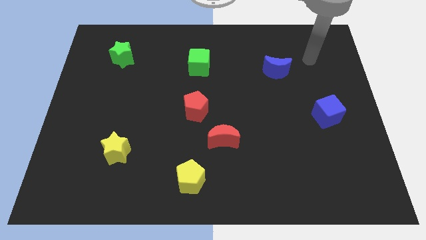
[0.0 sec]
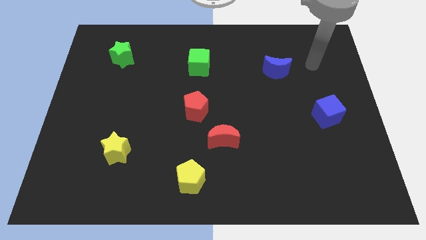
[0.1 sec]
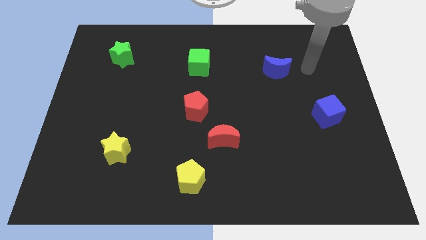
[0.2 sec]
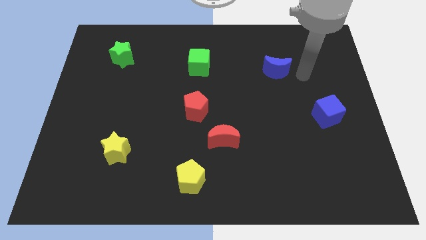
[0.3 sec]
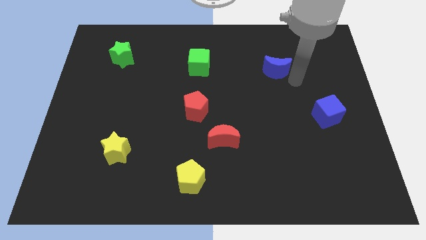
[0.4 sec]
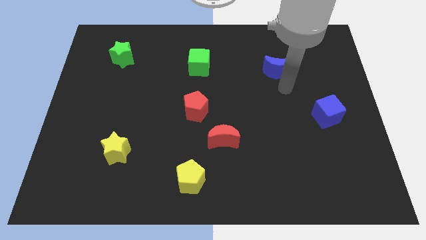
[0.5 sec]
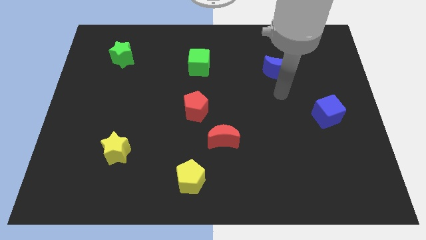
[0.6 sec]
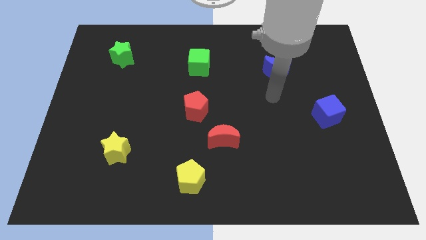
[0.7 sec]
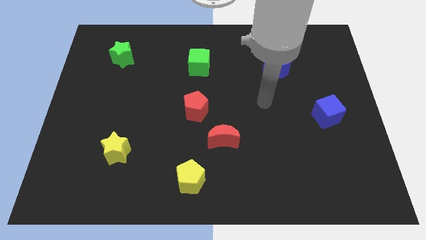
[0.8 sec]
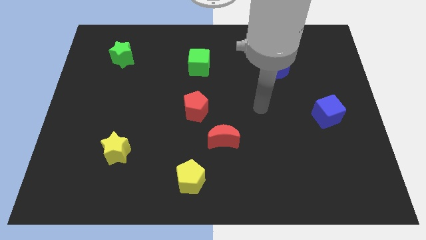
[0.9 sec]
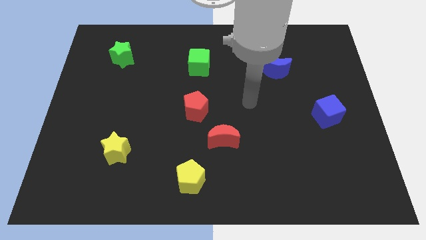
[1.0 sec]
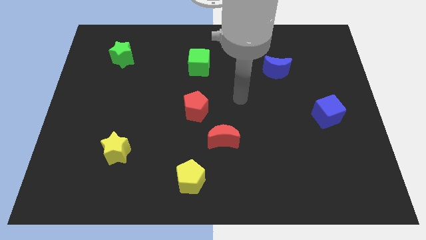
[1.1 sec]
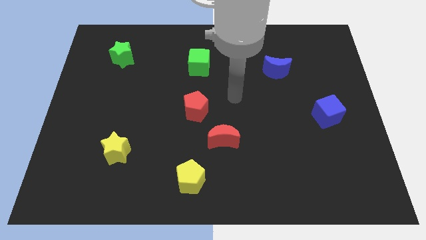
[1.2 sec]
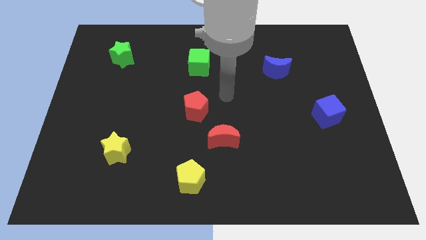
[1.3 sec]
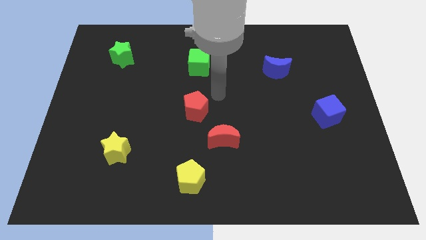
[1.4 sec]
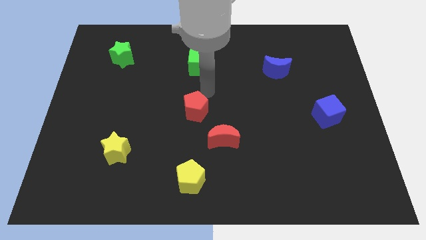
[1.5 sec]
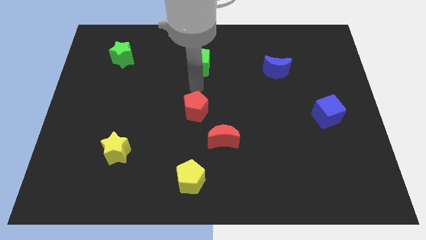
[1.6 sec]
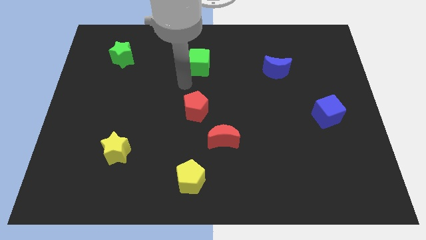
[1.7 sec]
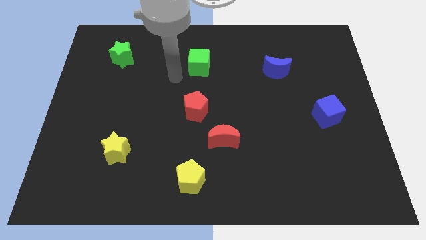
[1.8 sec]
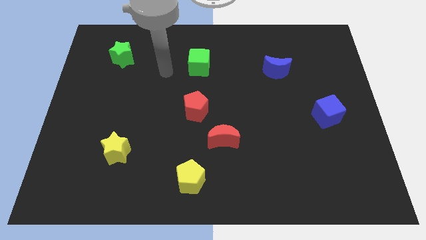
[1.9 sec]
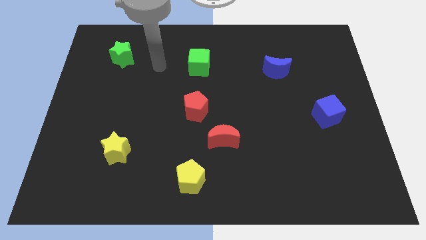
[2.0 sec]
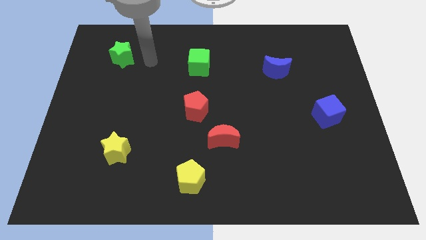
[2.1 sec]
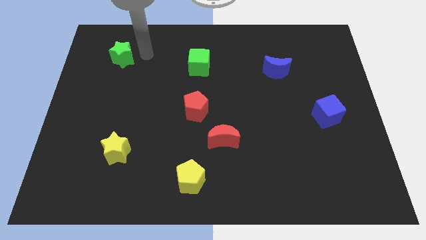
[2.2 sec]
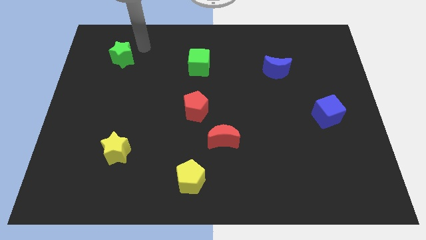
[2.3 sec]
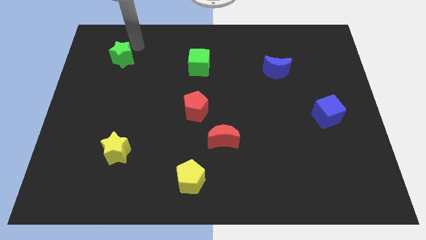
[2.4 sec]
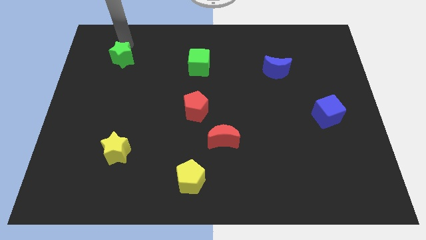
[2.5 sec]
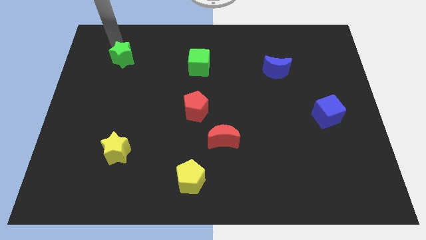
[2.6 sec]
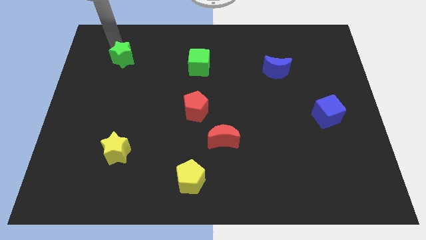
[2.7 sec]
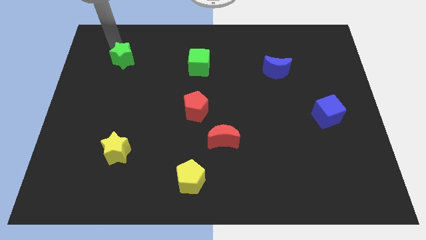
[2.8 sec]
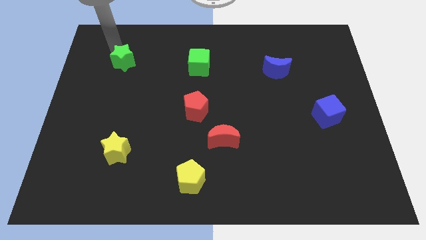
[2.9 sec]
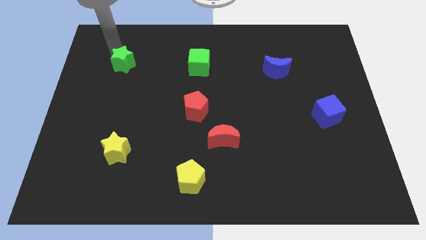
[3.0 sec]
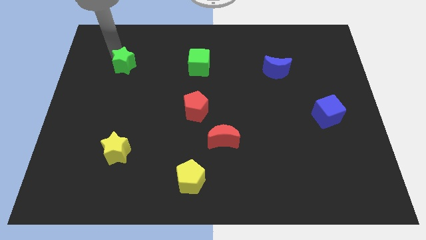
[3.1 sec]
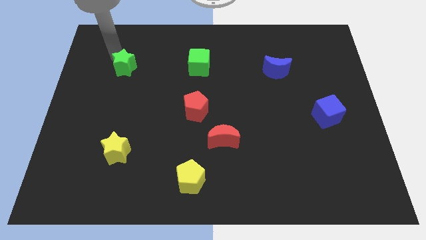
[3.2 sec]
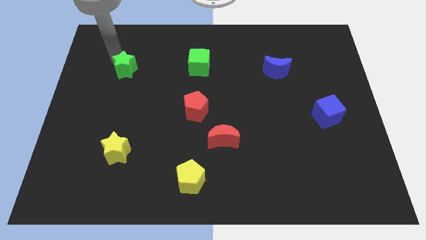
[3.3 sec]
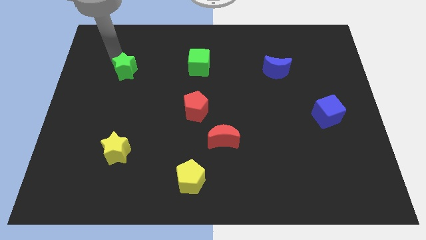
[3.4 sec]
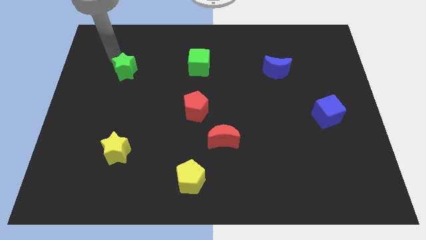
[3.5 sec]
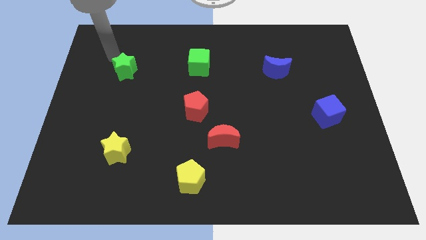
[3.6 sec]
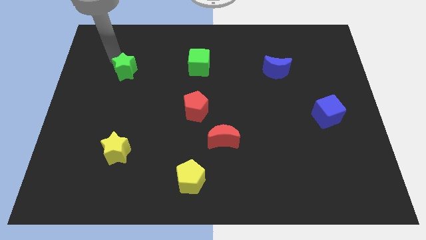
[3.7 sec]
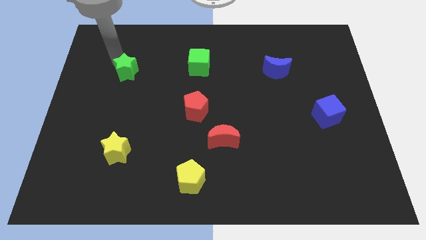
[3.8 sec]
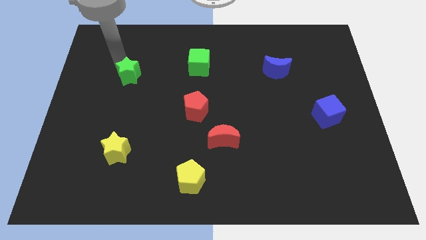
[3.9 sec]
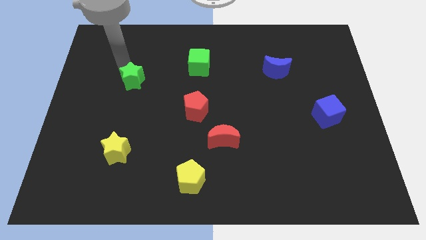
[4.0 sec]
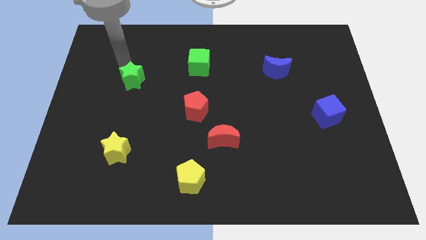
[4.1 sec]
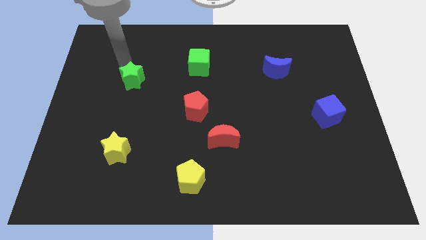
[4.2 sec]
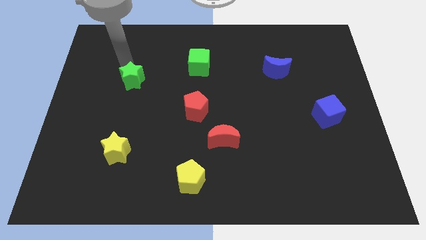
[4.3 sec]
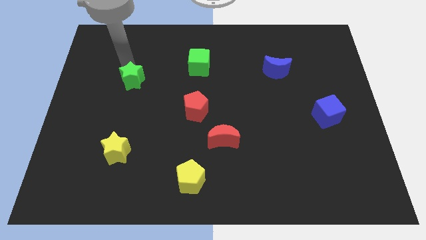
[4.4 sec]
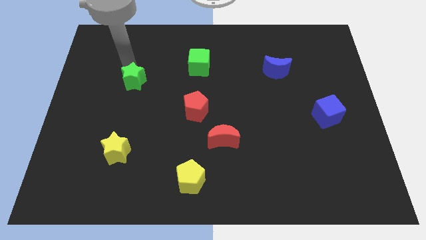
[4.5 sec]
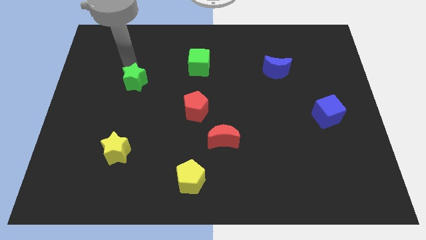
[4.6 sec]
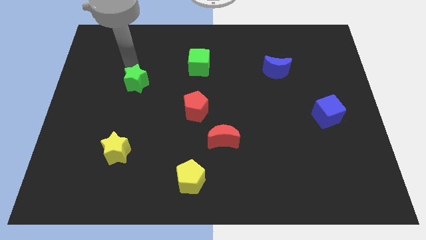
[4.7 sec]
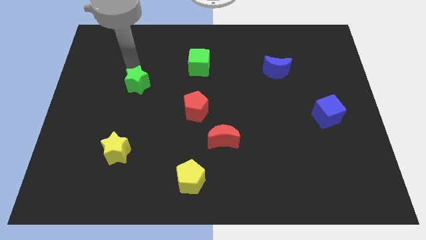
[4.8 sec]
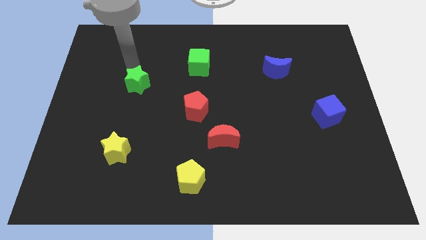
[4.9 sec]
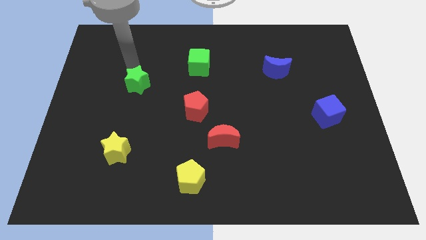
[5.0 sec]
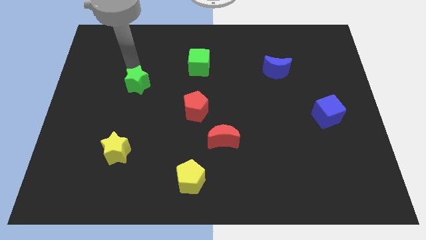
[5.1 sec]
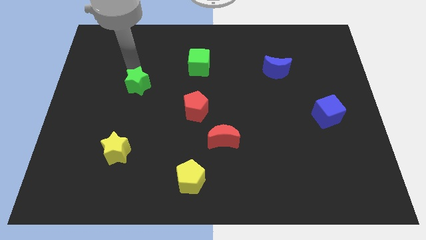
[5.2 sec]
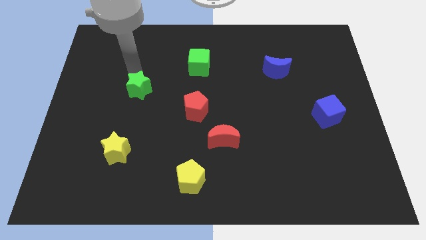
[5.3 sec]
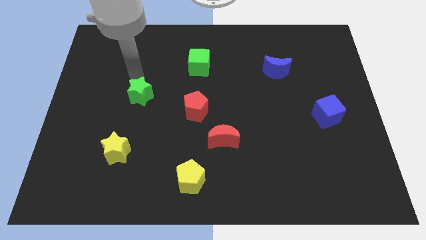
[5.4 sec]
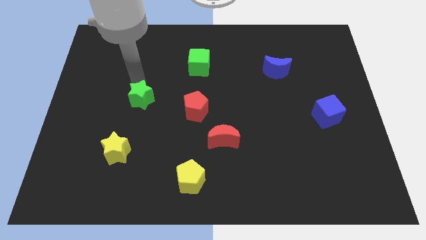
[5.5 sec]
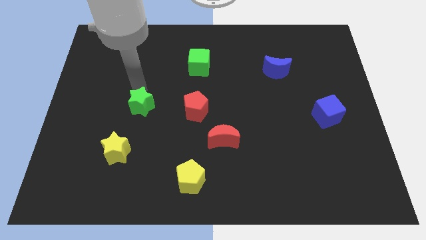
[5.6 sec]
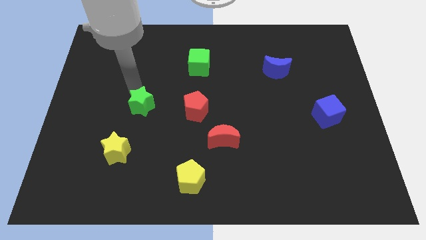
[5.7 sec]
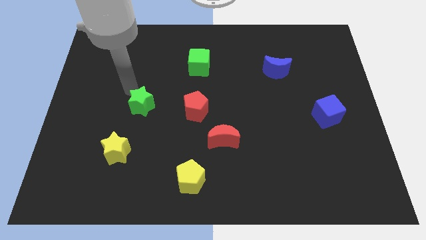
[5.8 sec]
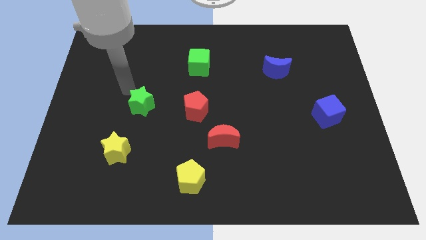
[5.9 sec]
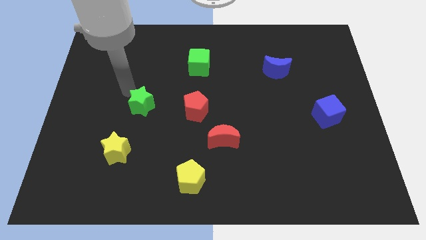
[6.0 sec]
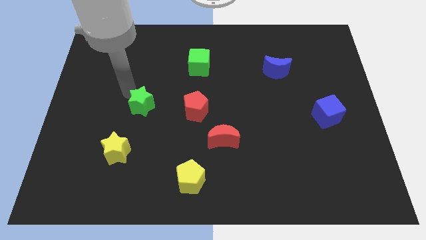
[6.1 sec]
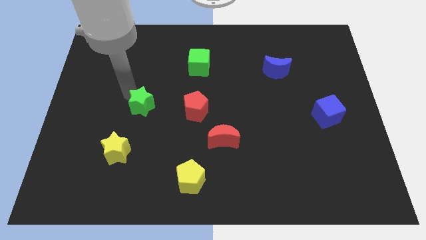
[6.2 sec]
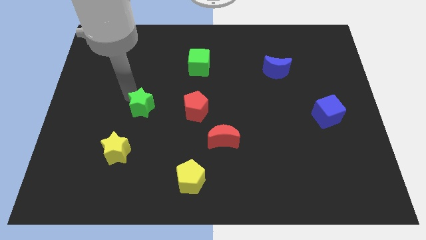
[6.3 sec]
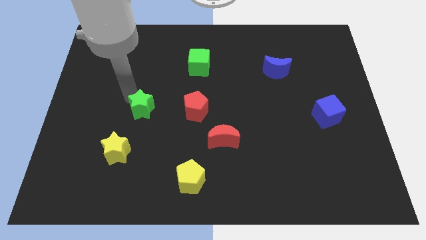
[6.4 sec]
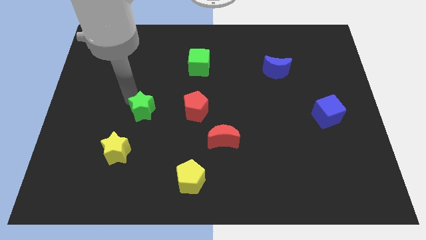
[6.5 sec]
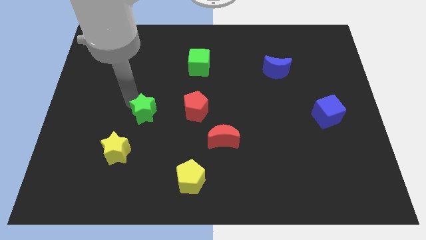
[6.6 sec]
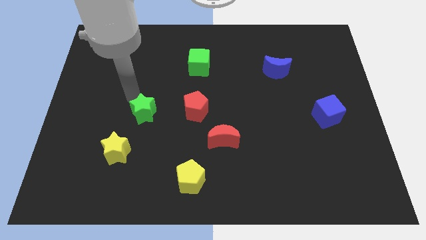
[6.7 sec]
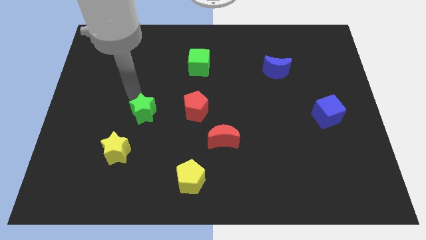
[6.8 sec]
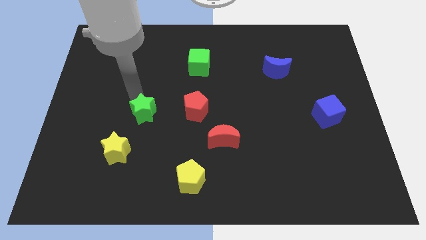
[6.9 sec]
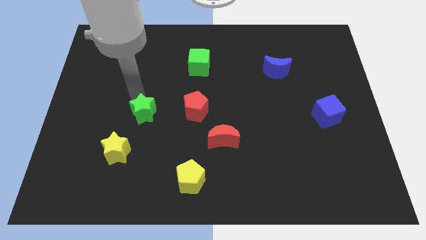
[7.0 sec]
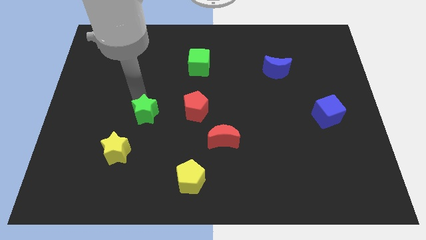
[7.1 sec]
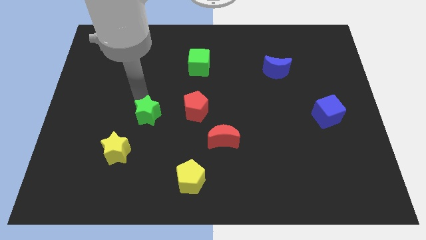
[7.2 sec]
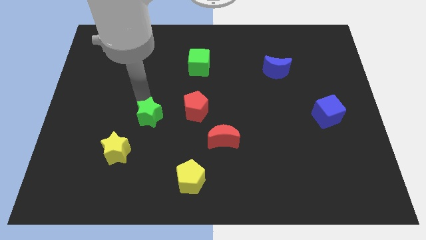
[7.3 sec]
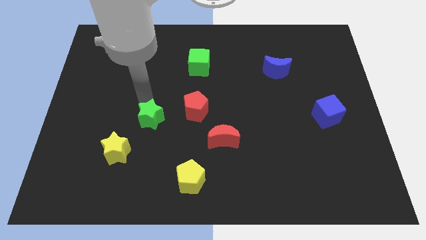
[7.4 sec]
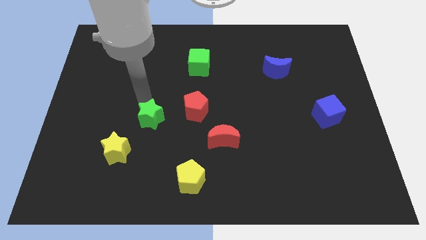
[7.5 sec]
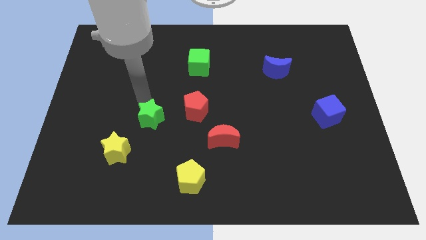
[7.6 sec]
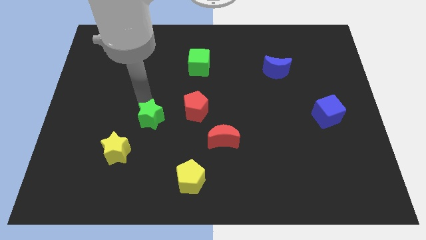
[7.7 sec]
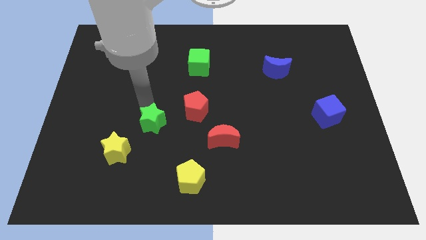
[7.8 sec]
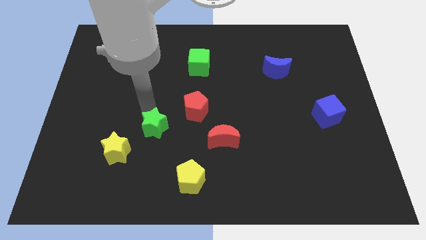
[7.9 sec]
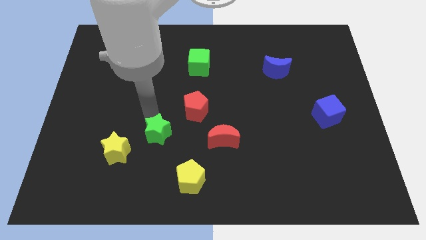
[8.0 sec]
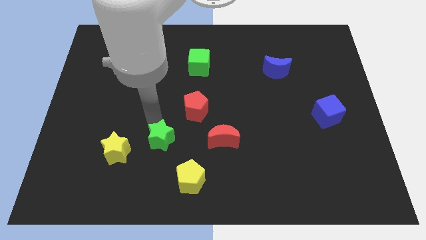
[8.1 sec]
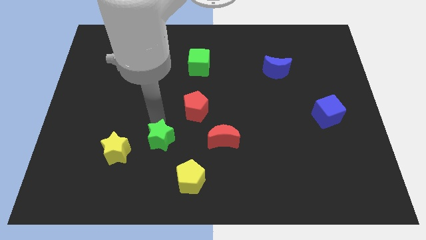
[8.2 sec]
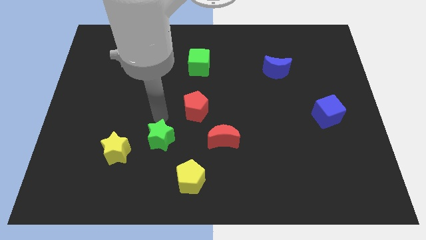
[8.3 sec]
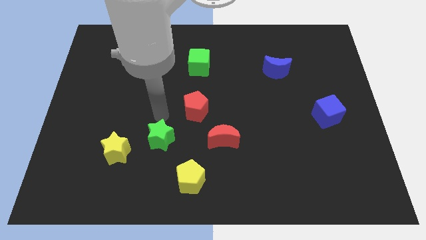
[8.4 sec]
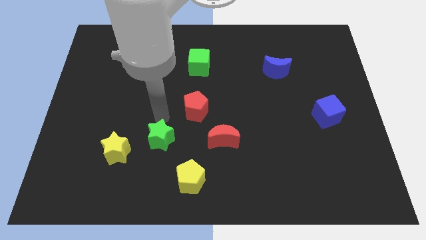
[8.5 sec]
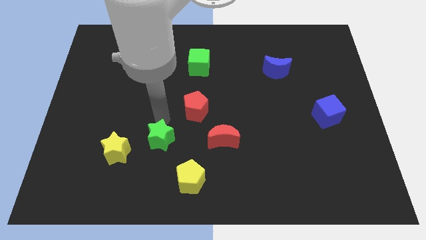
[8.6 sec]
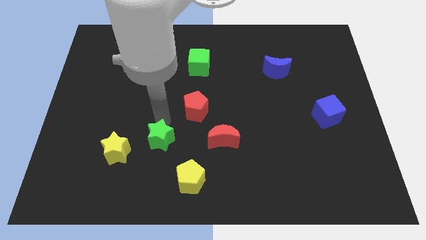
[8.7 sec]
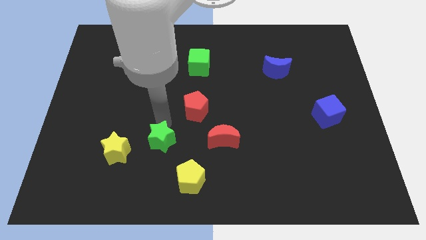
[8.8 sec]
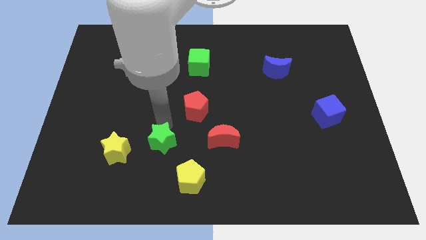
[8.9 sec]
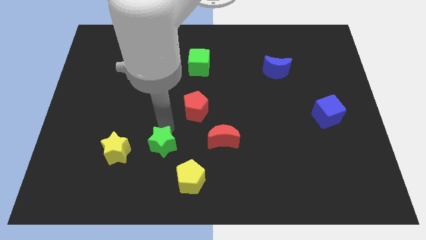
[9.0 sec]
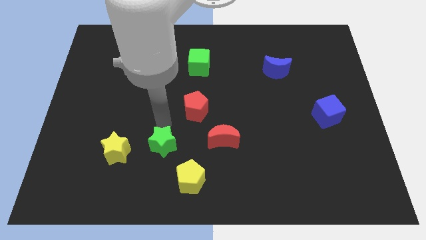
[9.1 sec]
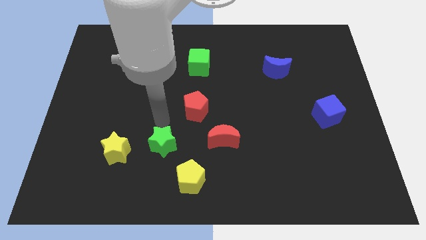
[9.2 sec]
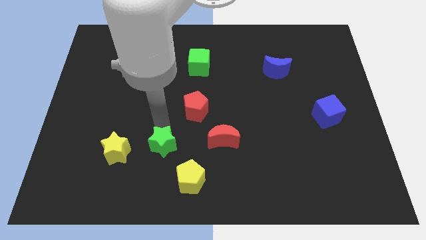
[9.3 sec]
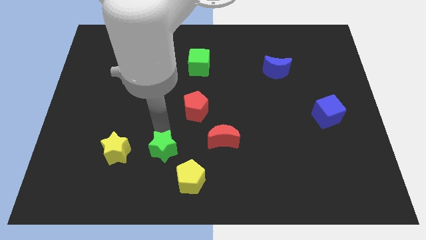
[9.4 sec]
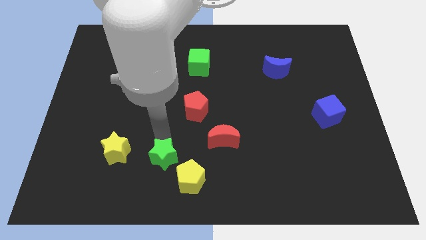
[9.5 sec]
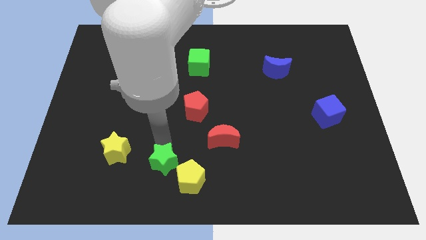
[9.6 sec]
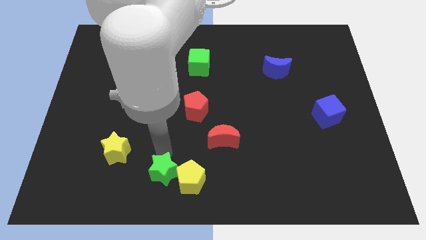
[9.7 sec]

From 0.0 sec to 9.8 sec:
move the green star to the bottom side
